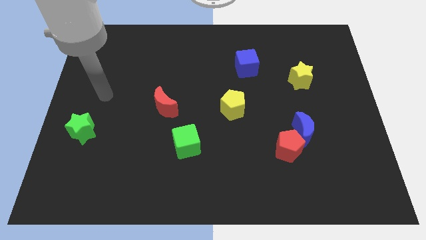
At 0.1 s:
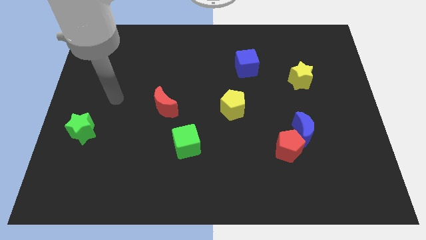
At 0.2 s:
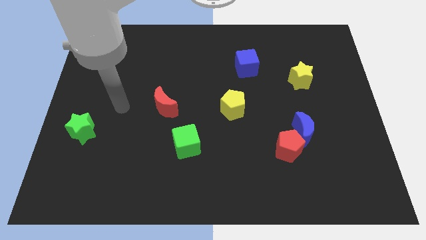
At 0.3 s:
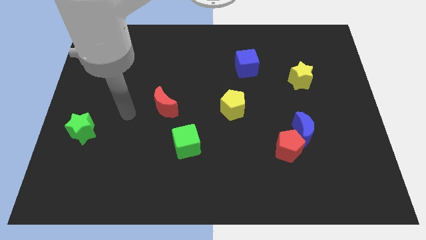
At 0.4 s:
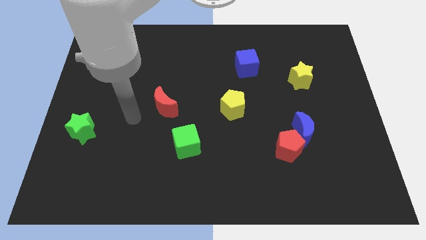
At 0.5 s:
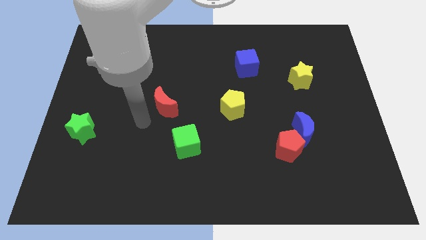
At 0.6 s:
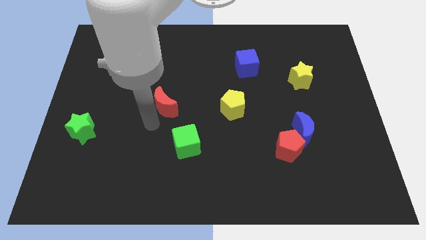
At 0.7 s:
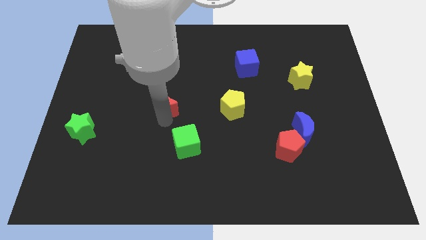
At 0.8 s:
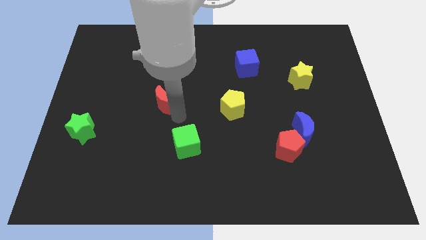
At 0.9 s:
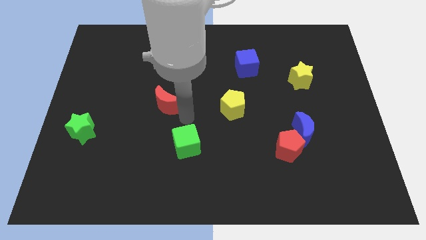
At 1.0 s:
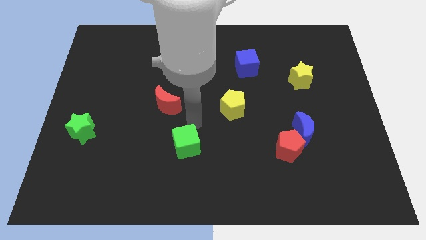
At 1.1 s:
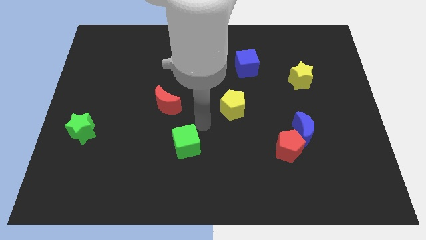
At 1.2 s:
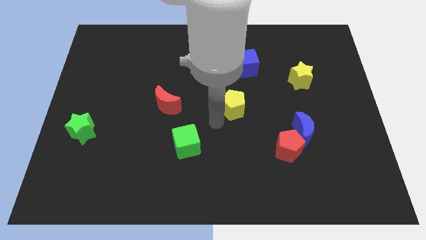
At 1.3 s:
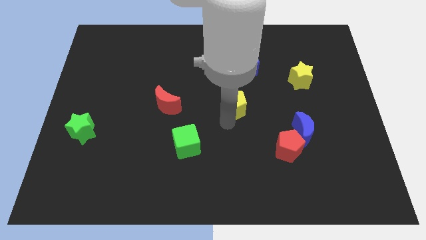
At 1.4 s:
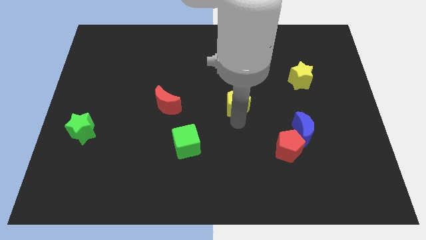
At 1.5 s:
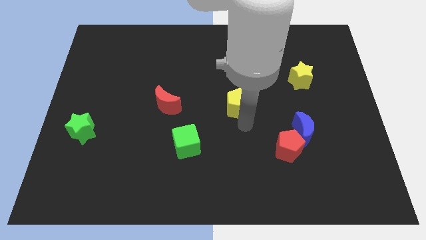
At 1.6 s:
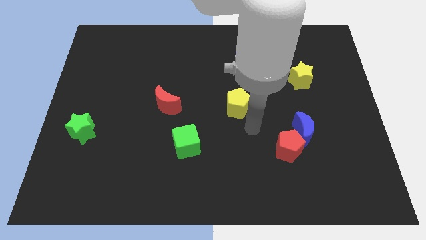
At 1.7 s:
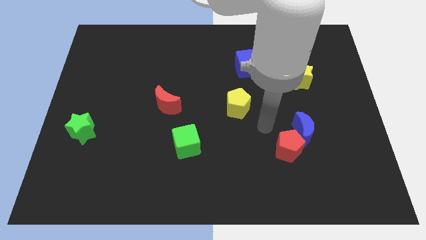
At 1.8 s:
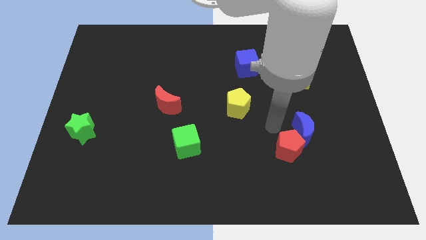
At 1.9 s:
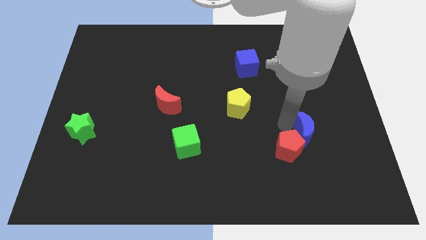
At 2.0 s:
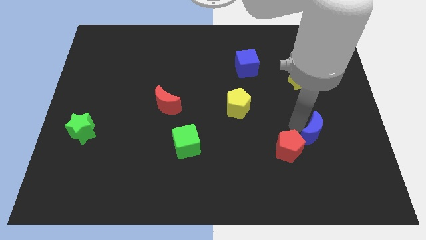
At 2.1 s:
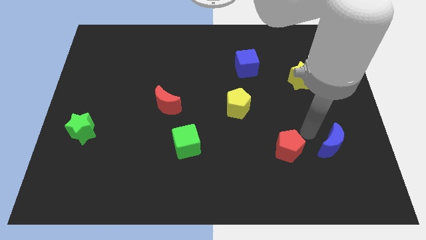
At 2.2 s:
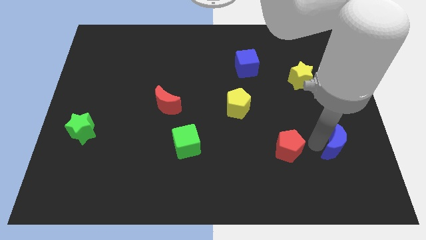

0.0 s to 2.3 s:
move the red pentagon away from the blue moon

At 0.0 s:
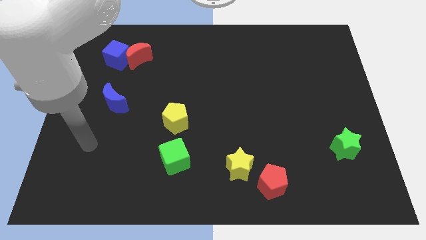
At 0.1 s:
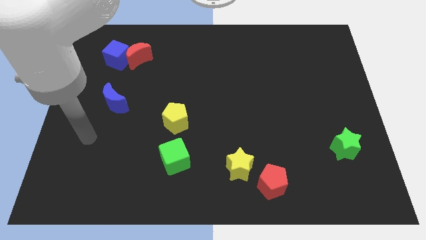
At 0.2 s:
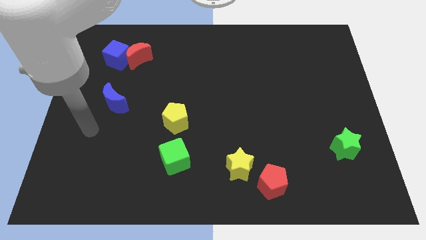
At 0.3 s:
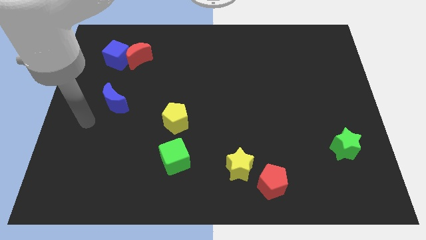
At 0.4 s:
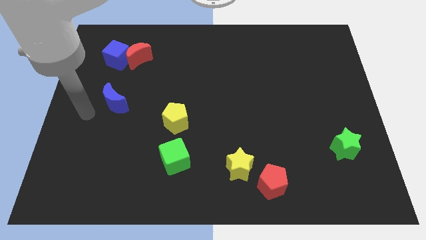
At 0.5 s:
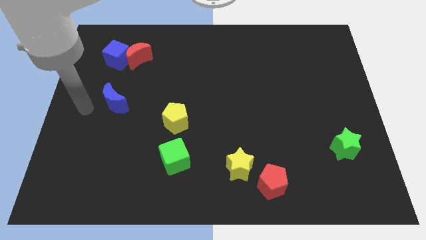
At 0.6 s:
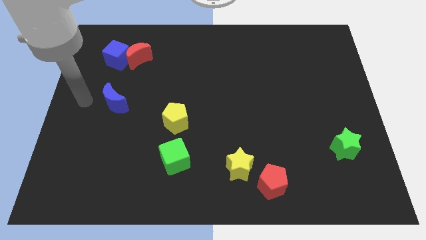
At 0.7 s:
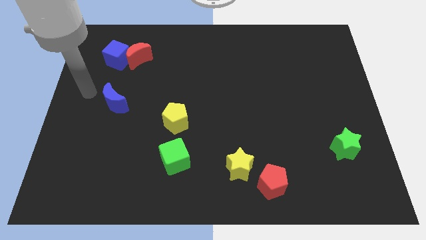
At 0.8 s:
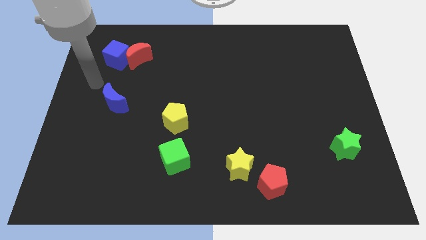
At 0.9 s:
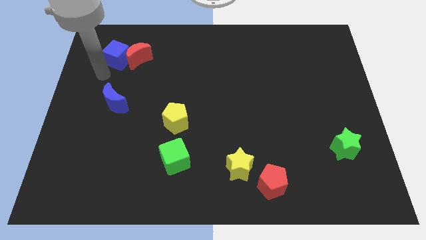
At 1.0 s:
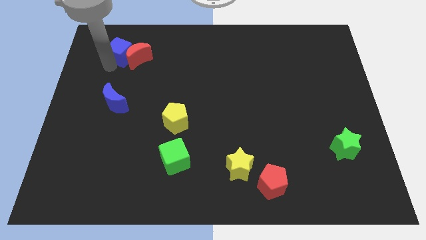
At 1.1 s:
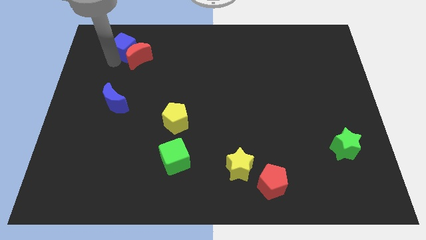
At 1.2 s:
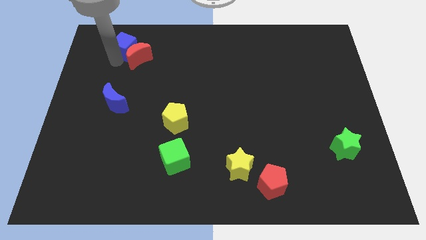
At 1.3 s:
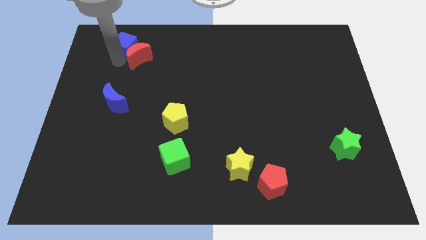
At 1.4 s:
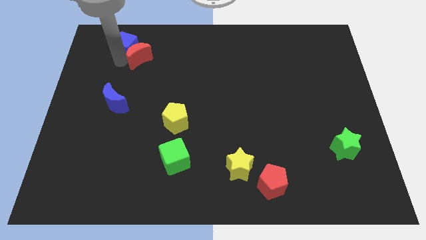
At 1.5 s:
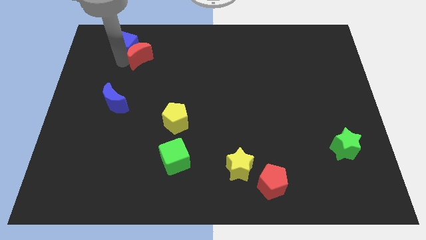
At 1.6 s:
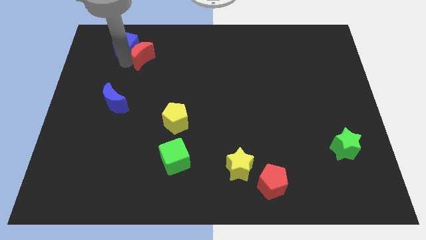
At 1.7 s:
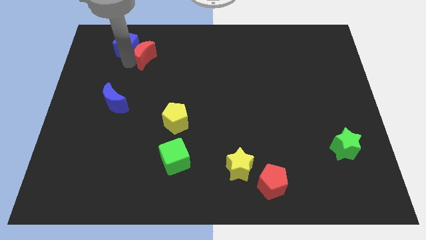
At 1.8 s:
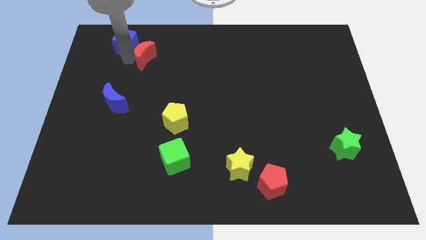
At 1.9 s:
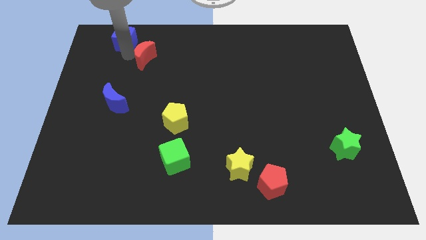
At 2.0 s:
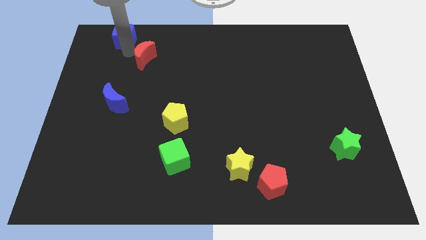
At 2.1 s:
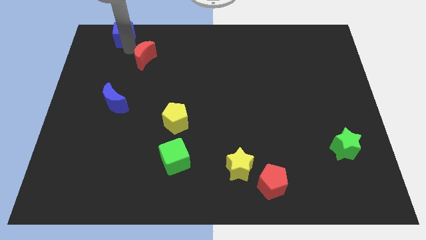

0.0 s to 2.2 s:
pull the red moon apart from the blue cube

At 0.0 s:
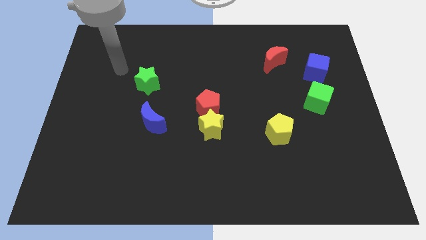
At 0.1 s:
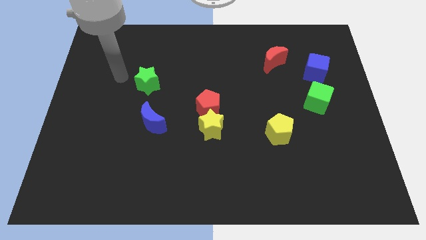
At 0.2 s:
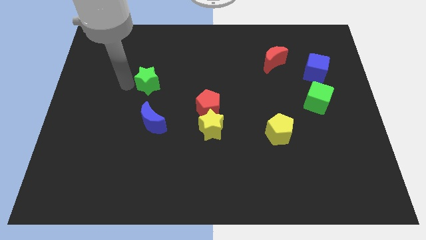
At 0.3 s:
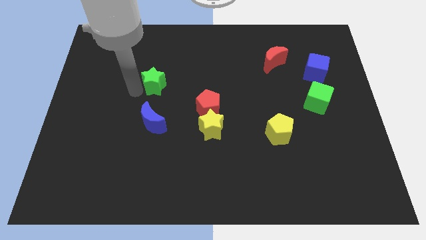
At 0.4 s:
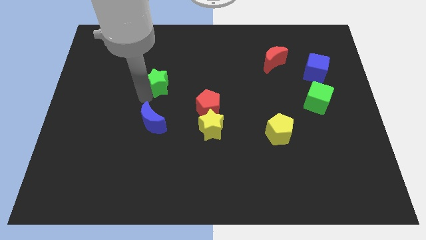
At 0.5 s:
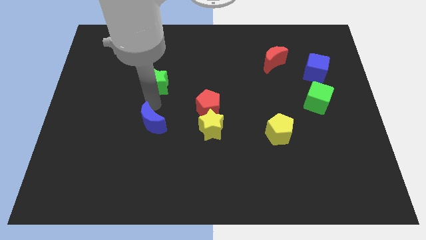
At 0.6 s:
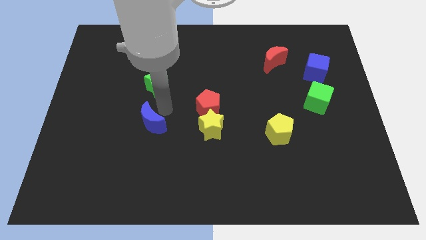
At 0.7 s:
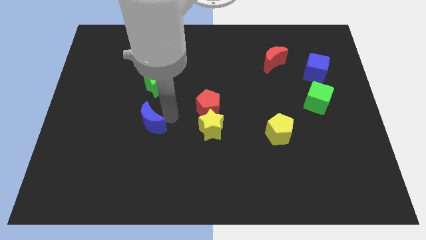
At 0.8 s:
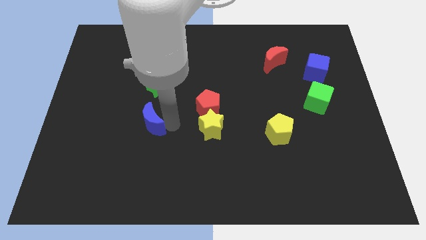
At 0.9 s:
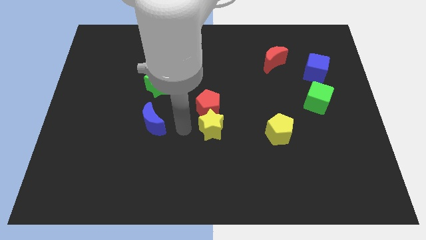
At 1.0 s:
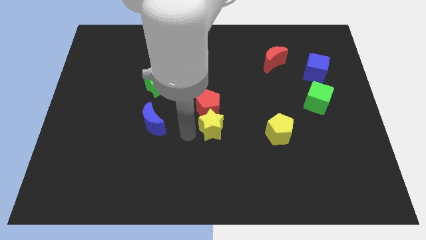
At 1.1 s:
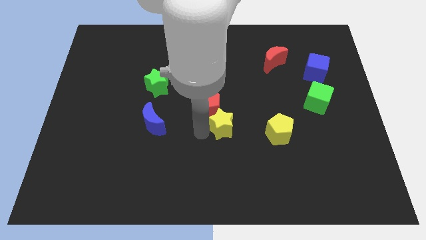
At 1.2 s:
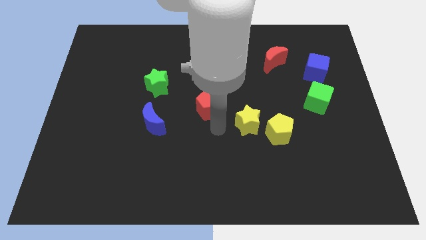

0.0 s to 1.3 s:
move the red pentagon away from the yellow star

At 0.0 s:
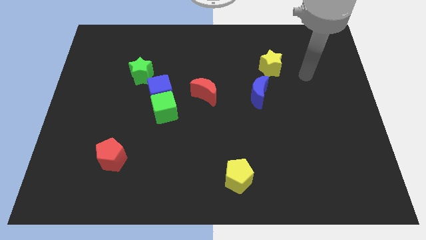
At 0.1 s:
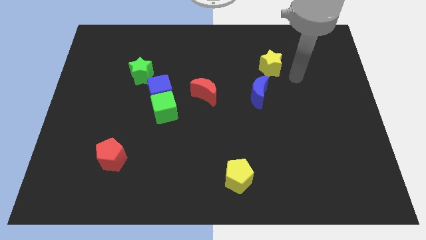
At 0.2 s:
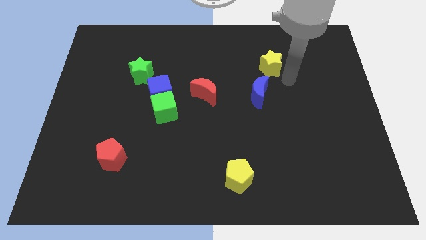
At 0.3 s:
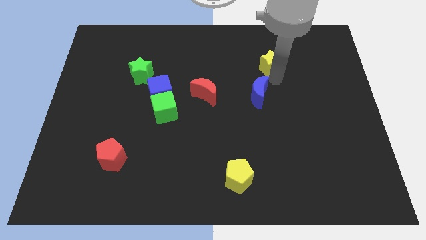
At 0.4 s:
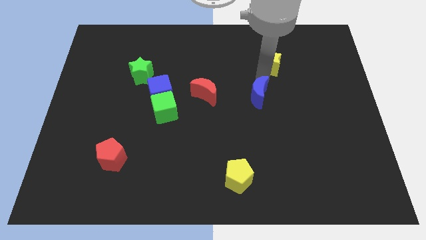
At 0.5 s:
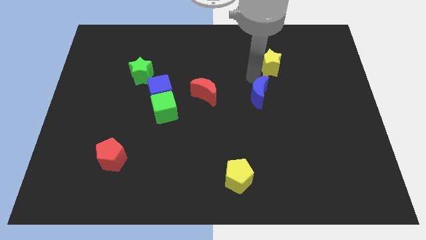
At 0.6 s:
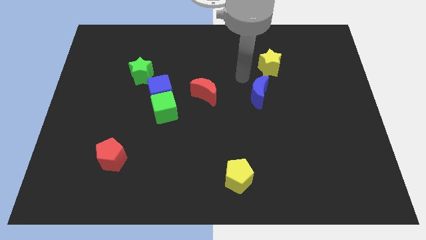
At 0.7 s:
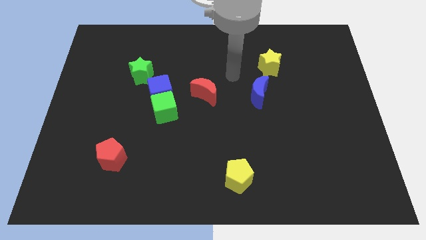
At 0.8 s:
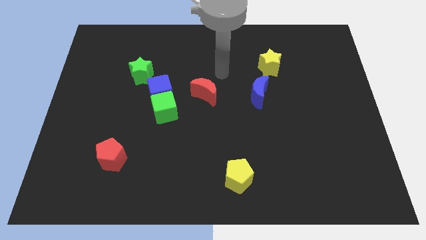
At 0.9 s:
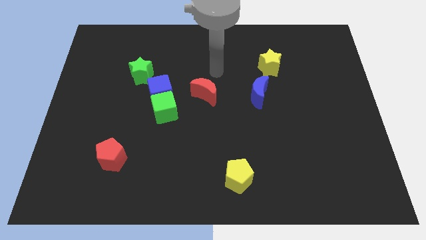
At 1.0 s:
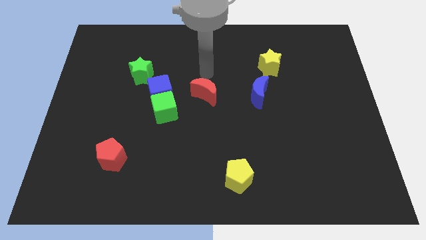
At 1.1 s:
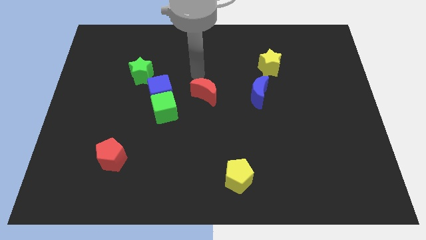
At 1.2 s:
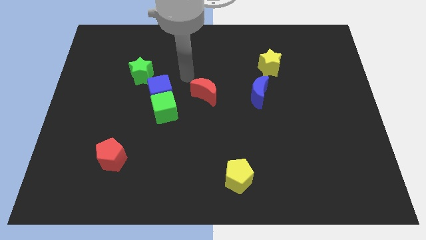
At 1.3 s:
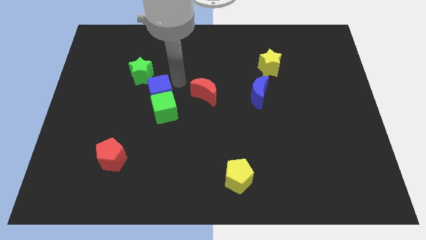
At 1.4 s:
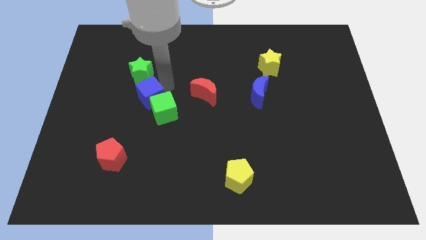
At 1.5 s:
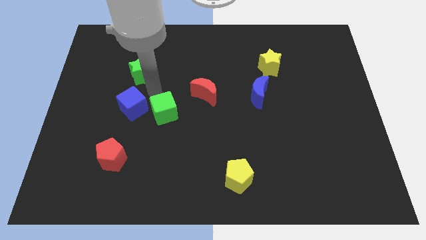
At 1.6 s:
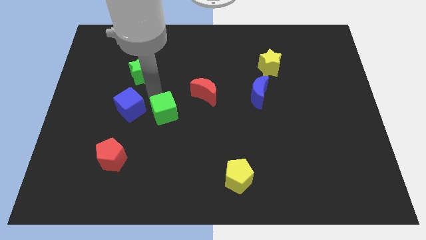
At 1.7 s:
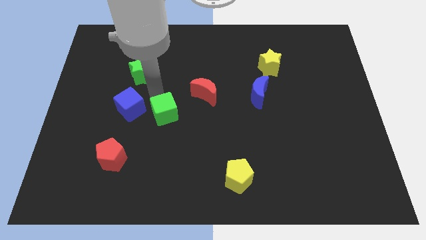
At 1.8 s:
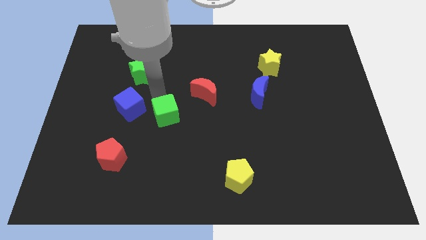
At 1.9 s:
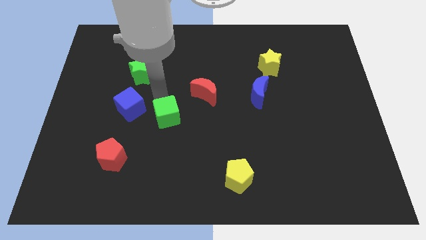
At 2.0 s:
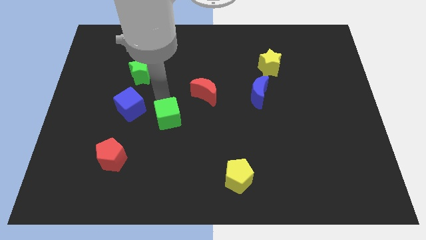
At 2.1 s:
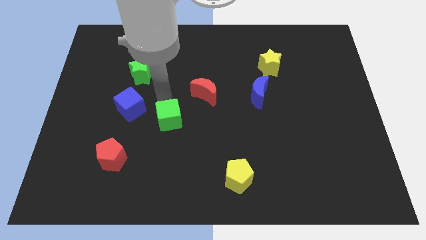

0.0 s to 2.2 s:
move the green cube away from the blue cube

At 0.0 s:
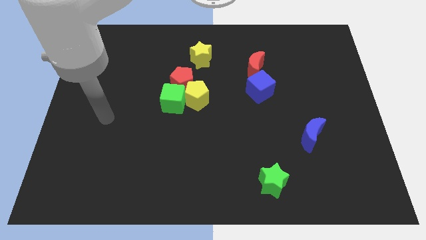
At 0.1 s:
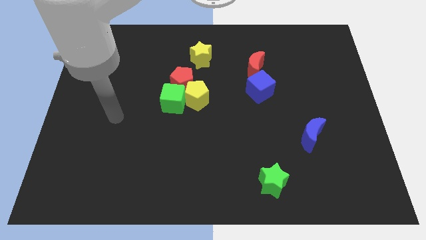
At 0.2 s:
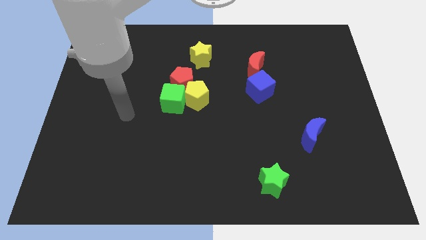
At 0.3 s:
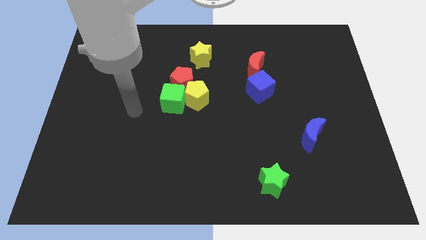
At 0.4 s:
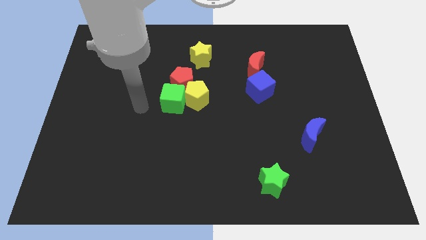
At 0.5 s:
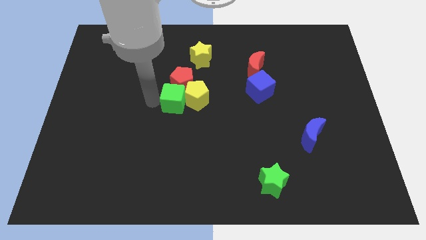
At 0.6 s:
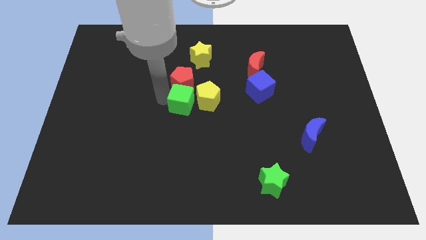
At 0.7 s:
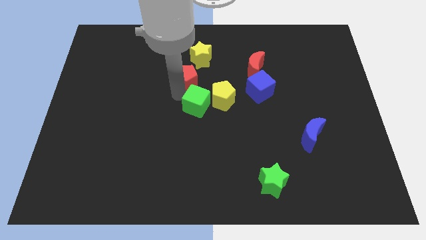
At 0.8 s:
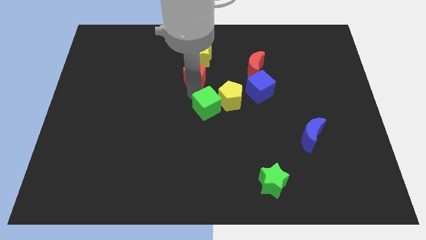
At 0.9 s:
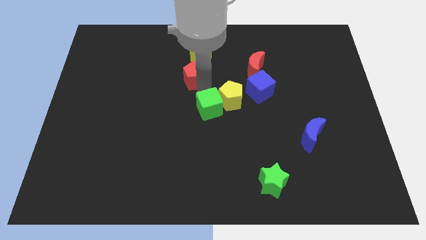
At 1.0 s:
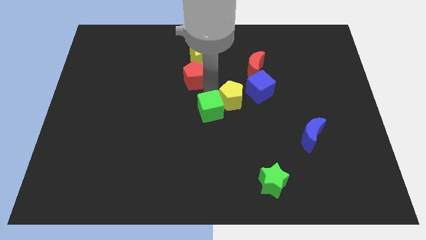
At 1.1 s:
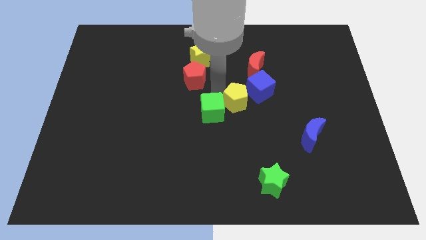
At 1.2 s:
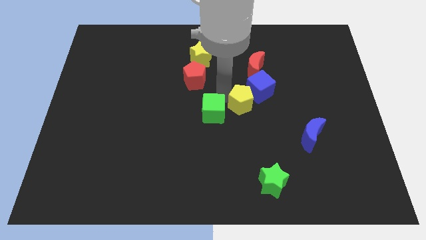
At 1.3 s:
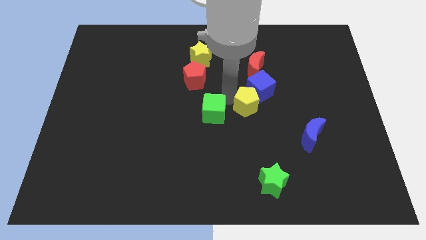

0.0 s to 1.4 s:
move the yellow pentagon away from the red pentagon and green cube

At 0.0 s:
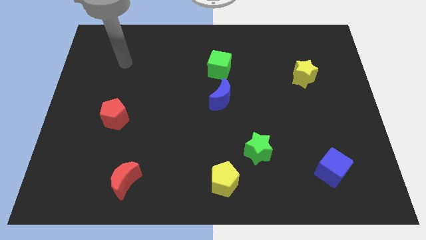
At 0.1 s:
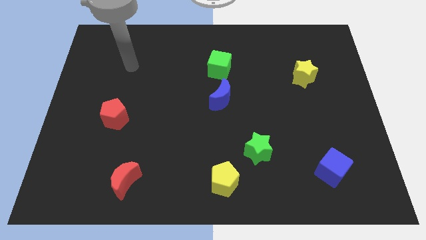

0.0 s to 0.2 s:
separate the green star from the yellow pentagon
